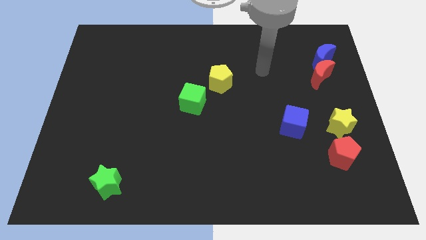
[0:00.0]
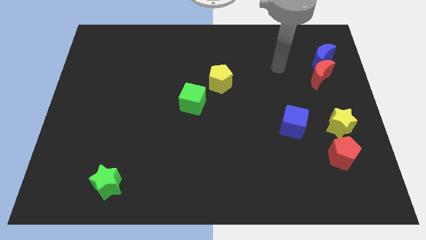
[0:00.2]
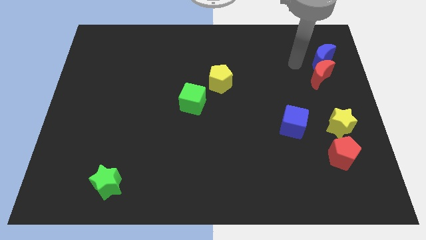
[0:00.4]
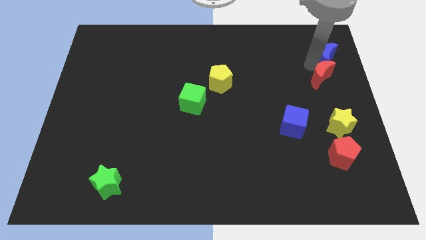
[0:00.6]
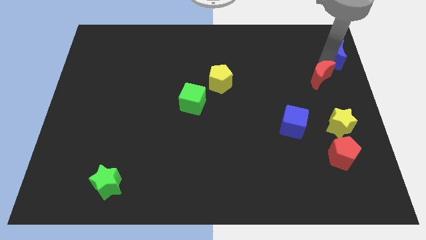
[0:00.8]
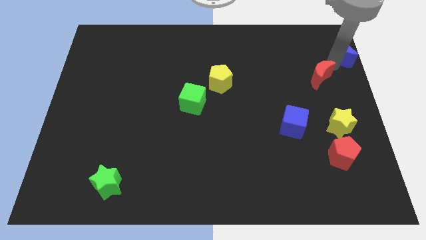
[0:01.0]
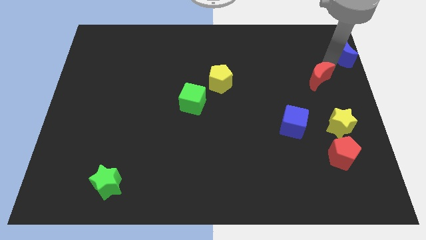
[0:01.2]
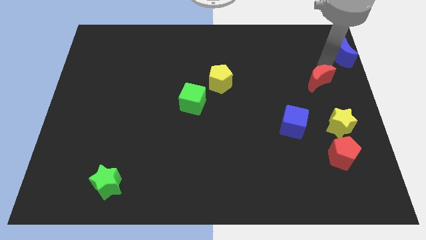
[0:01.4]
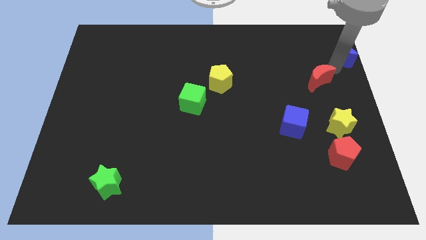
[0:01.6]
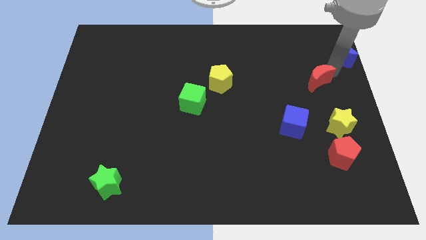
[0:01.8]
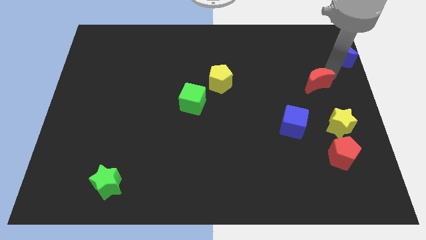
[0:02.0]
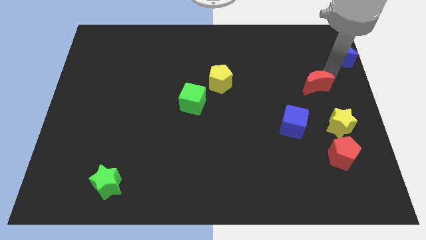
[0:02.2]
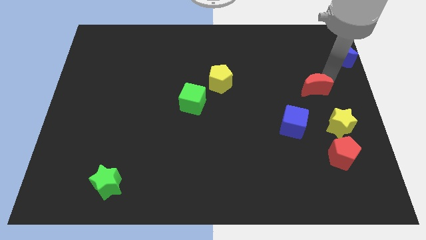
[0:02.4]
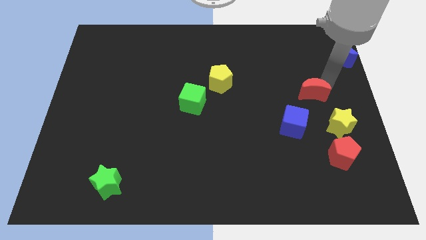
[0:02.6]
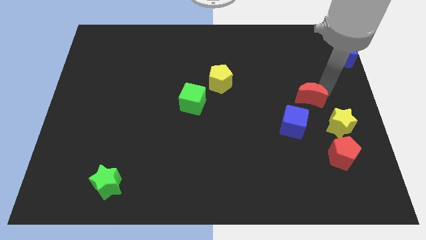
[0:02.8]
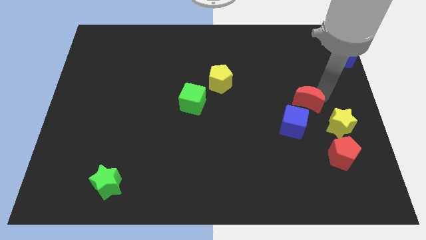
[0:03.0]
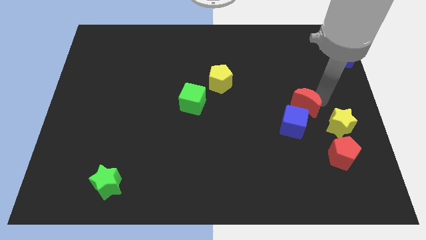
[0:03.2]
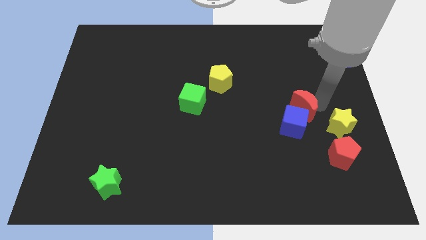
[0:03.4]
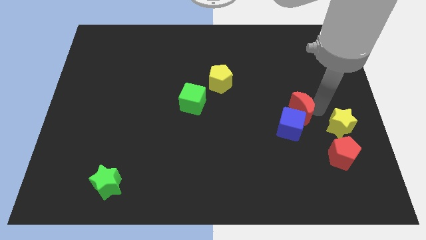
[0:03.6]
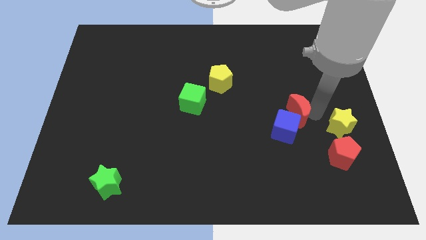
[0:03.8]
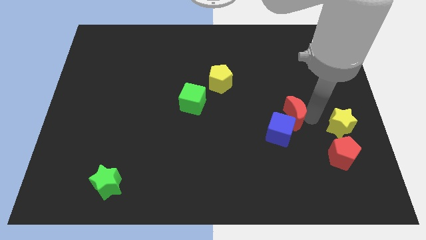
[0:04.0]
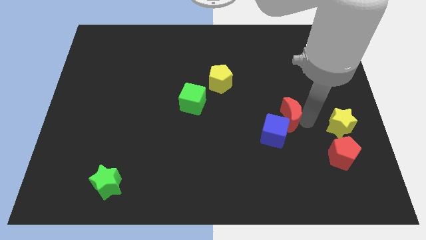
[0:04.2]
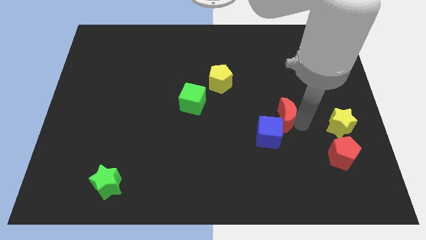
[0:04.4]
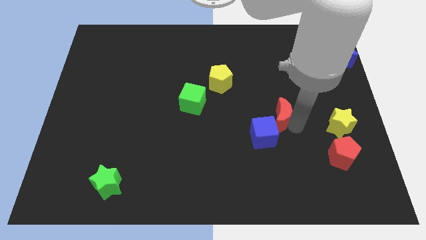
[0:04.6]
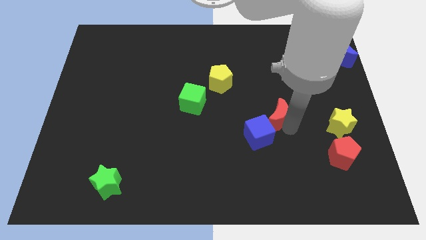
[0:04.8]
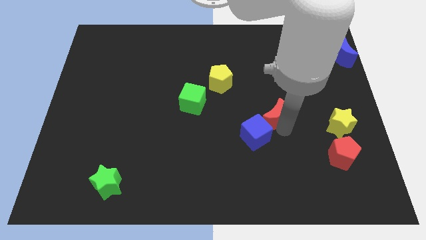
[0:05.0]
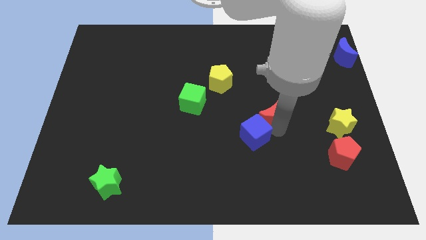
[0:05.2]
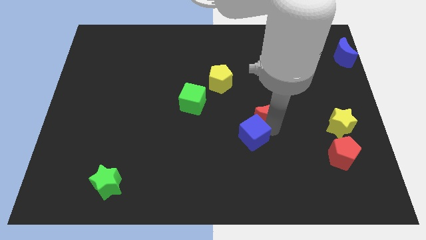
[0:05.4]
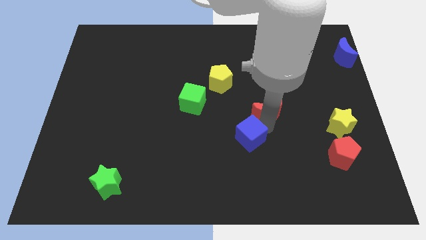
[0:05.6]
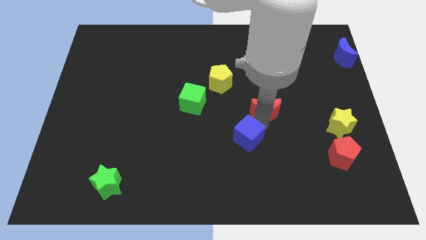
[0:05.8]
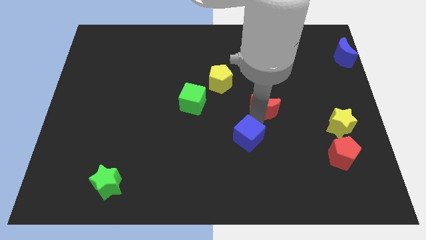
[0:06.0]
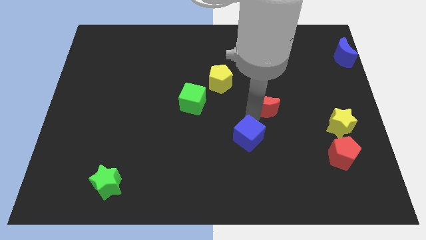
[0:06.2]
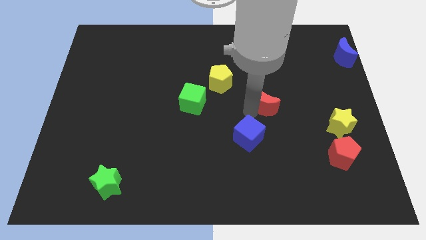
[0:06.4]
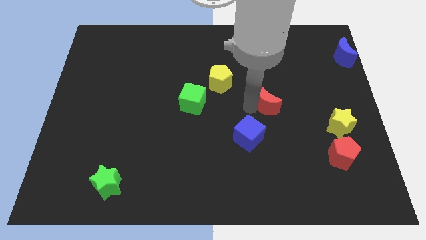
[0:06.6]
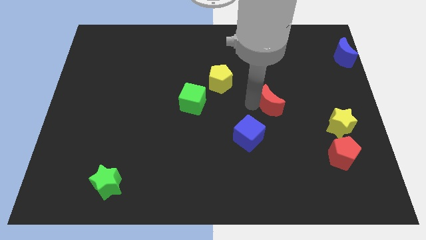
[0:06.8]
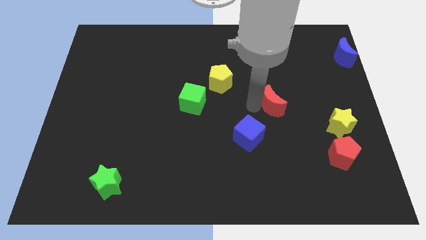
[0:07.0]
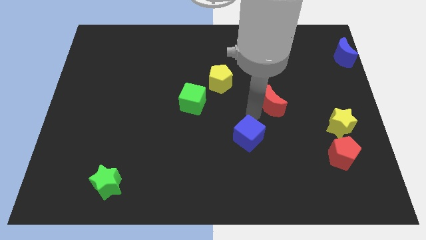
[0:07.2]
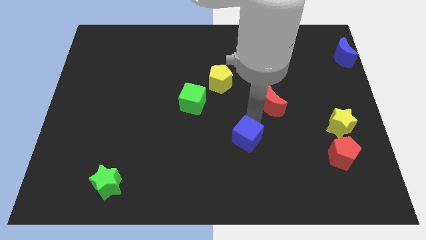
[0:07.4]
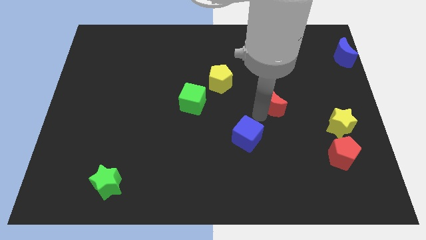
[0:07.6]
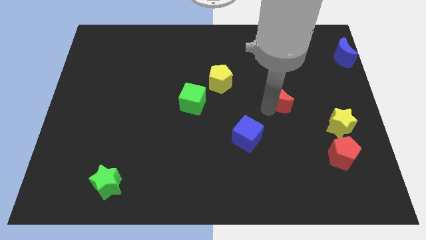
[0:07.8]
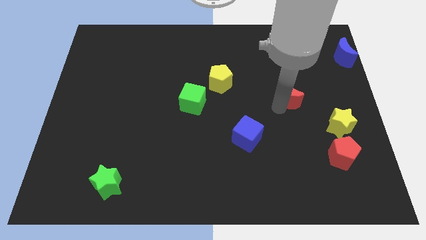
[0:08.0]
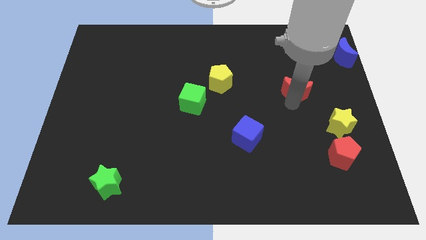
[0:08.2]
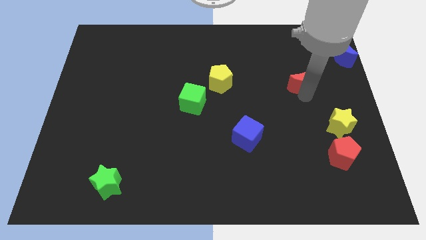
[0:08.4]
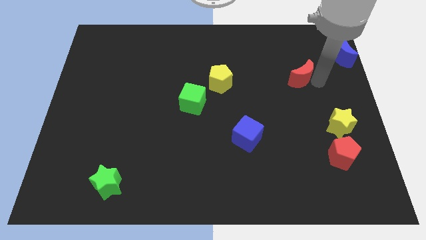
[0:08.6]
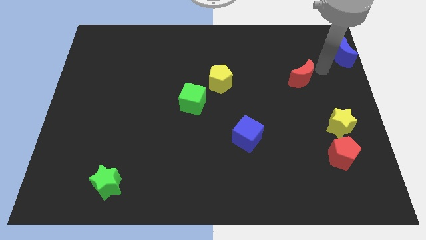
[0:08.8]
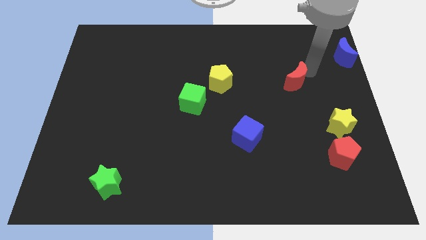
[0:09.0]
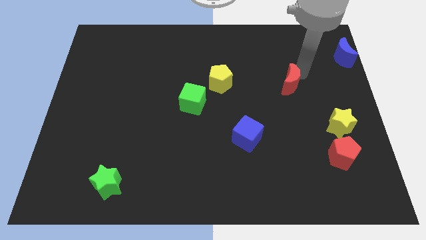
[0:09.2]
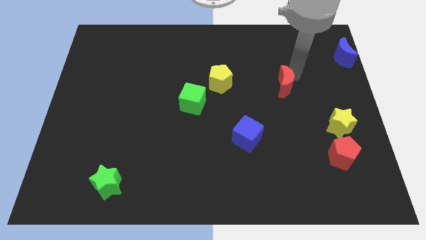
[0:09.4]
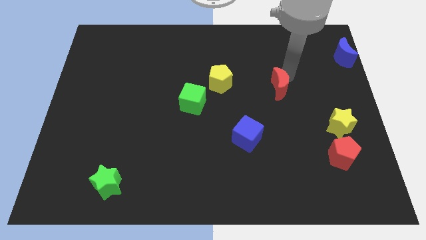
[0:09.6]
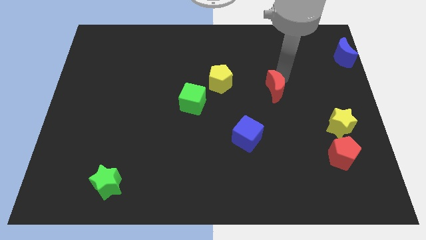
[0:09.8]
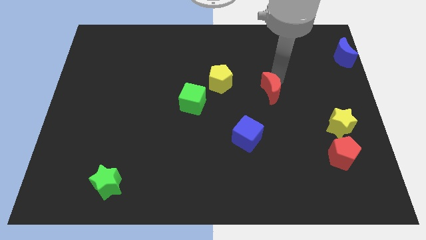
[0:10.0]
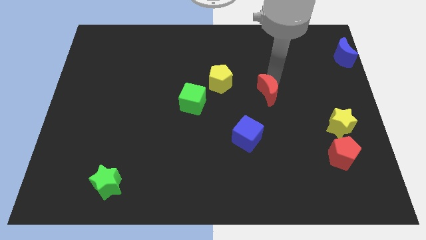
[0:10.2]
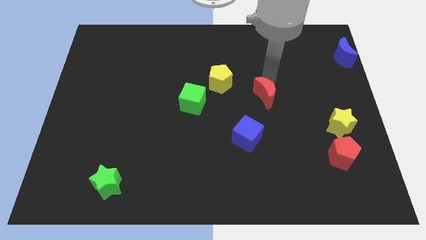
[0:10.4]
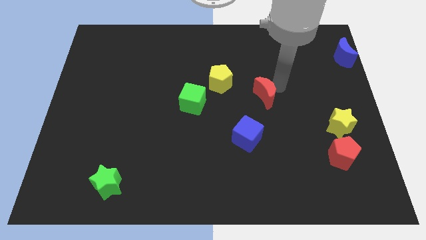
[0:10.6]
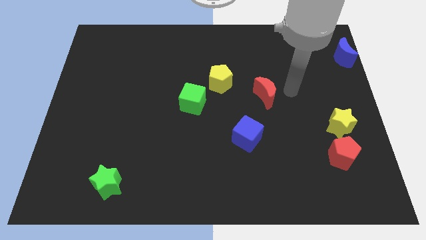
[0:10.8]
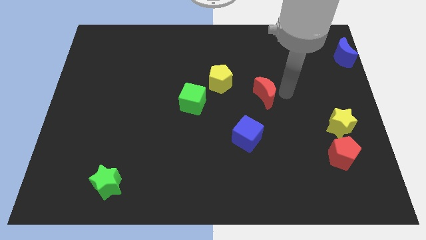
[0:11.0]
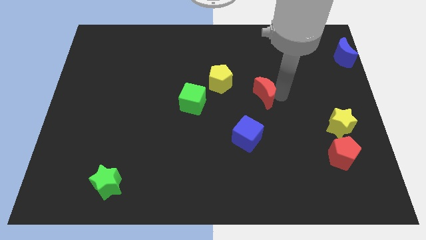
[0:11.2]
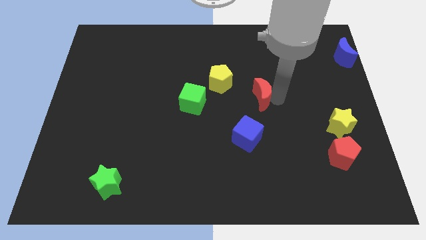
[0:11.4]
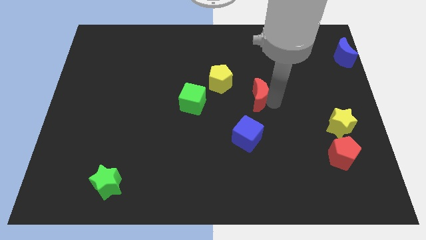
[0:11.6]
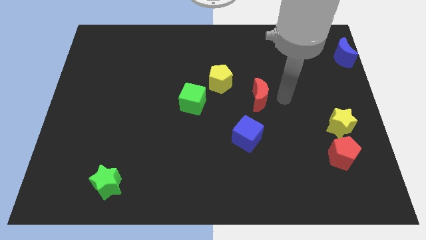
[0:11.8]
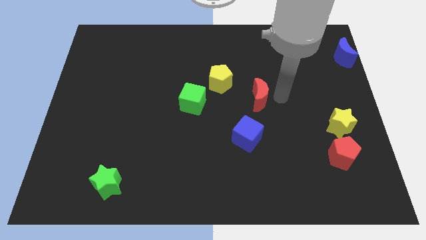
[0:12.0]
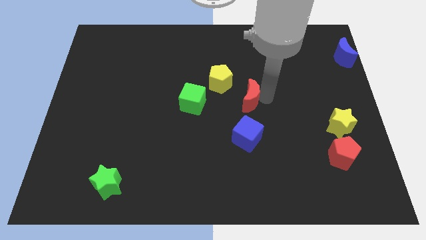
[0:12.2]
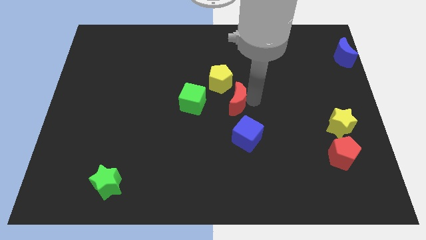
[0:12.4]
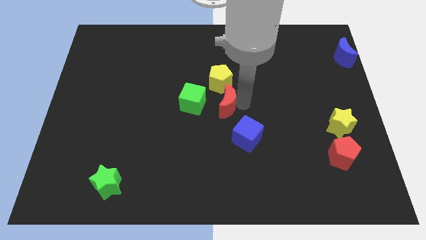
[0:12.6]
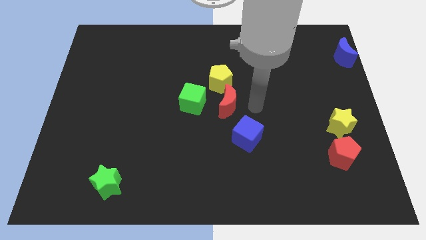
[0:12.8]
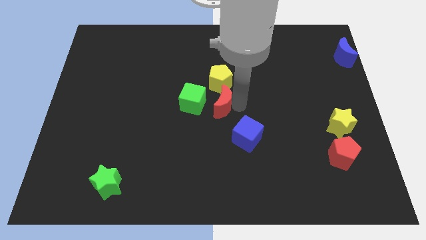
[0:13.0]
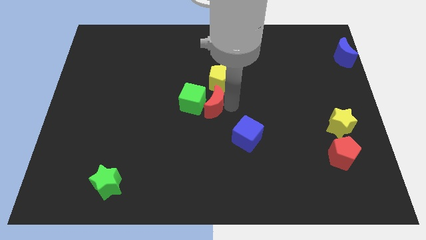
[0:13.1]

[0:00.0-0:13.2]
move the red moon close to the green cube

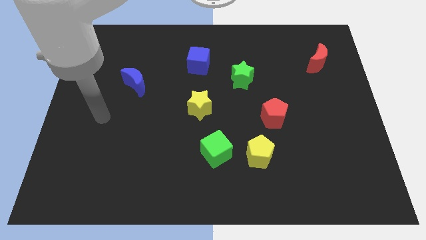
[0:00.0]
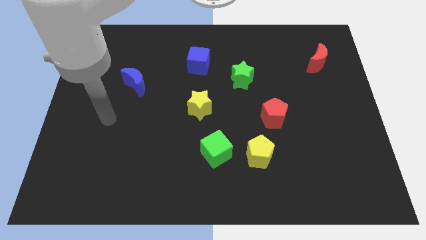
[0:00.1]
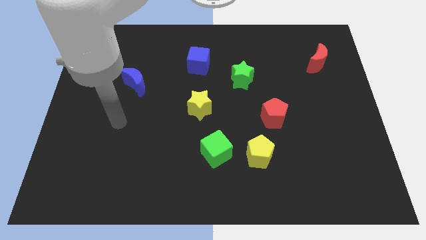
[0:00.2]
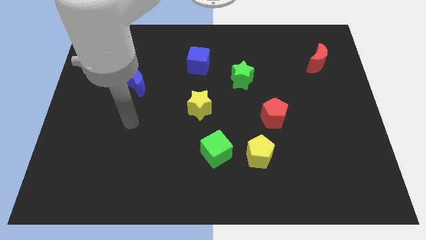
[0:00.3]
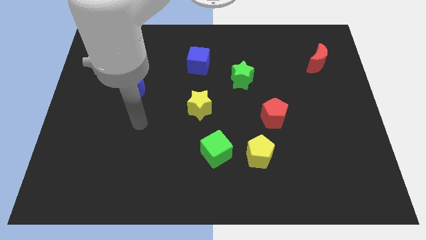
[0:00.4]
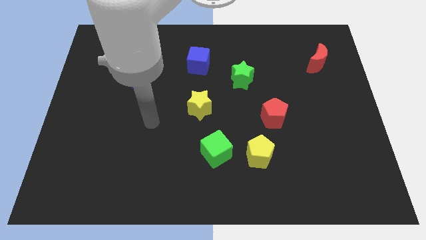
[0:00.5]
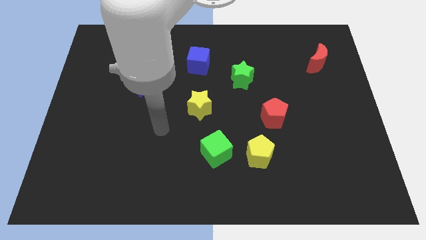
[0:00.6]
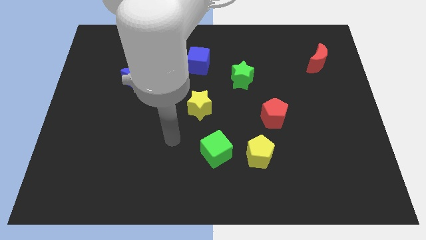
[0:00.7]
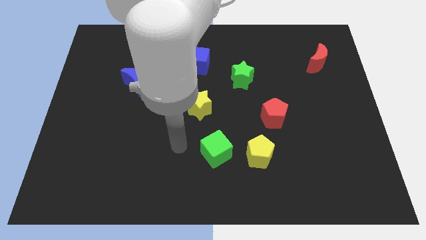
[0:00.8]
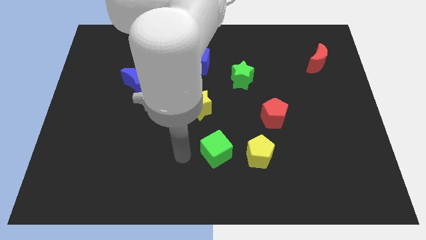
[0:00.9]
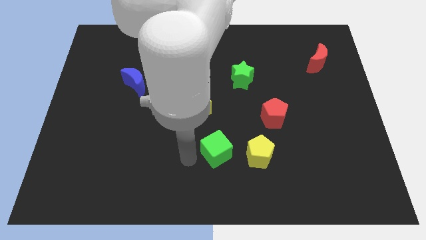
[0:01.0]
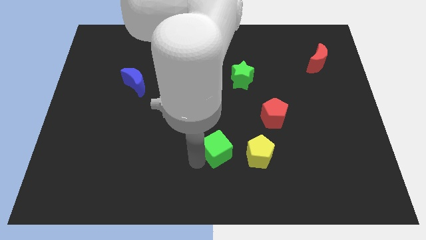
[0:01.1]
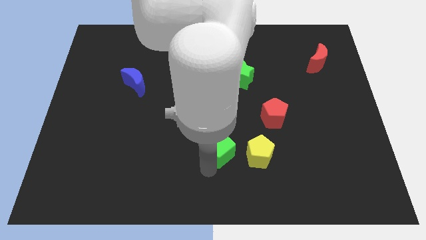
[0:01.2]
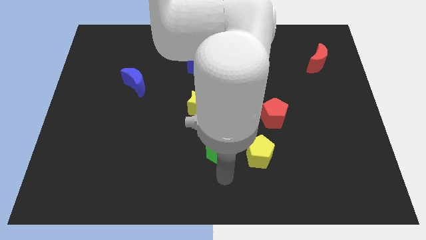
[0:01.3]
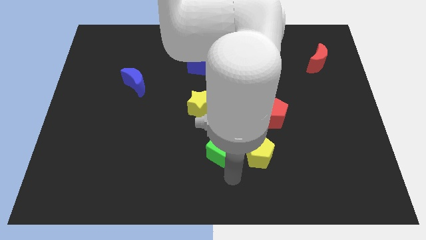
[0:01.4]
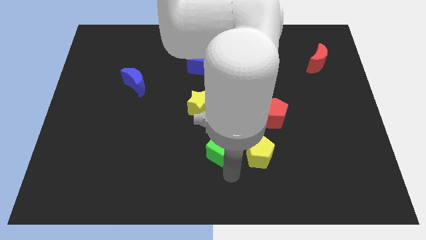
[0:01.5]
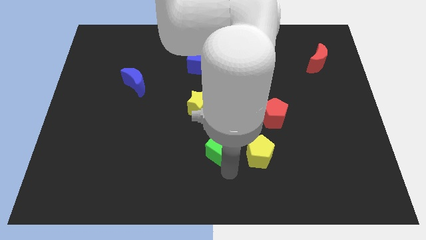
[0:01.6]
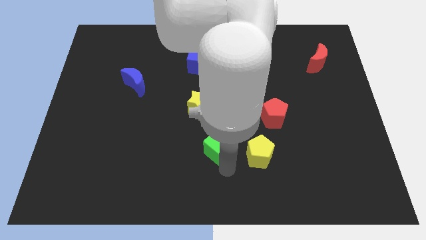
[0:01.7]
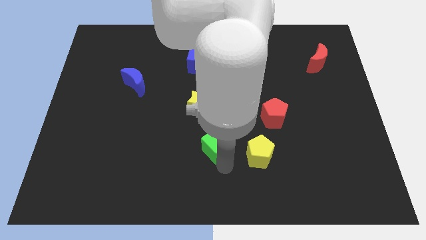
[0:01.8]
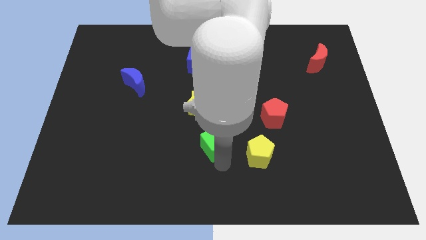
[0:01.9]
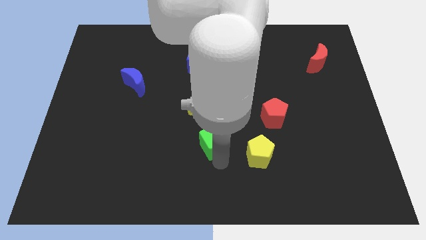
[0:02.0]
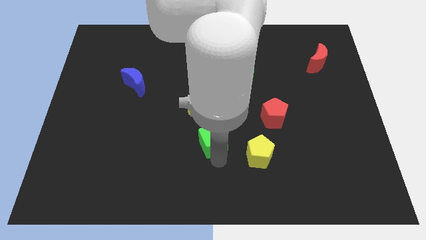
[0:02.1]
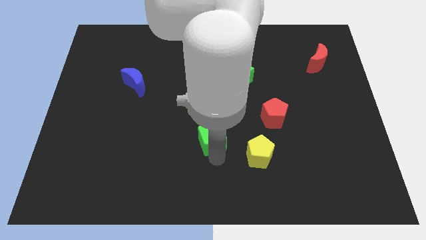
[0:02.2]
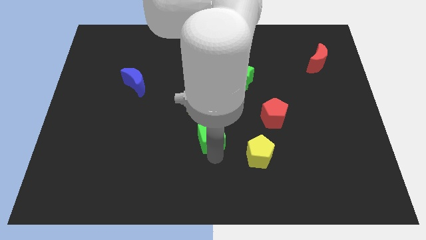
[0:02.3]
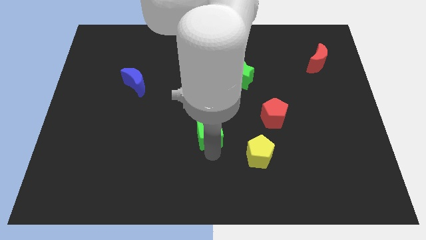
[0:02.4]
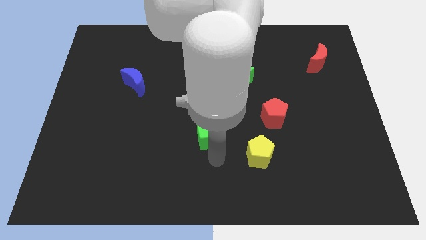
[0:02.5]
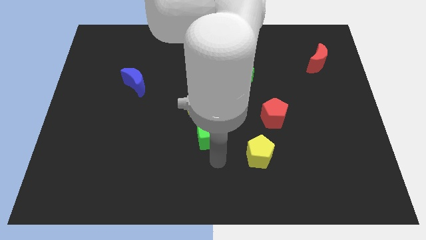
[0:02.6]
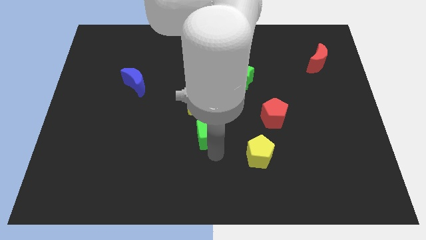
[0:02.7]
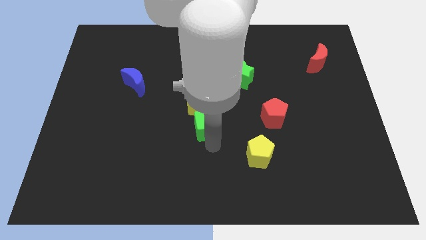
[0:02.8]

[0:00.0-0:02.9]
push the green cube next to the yellow star
